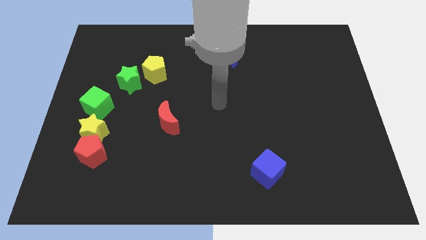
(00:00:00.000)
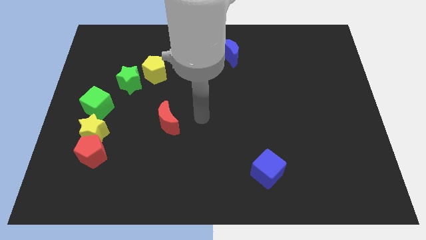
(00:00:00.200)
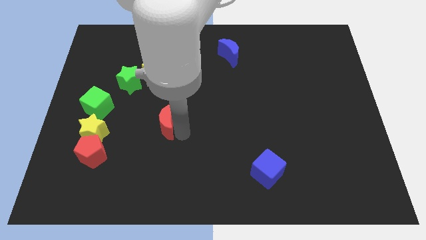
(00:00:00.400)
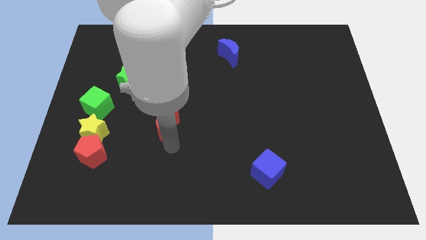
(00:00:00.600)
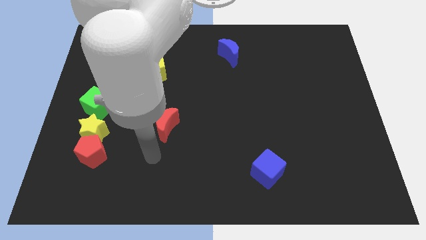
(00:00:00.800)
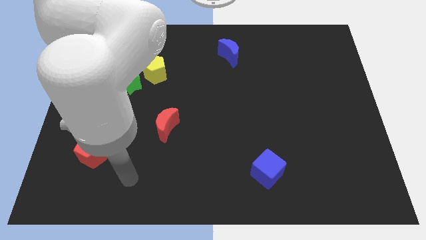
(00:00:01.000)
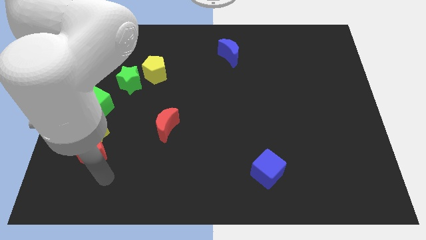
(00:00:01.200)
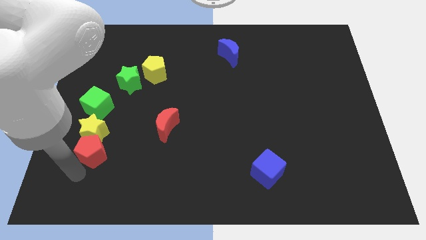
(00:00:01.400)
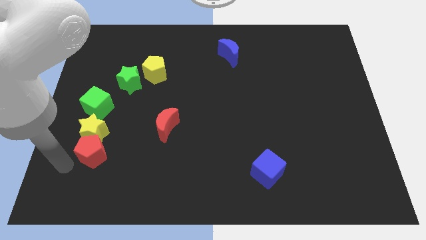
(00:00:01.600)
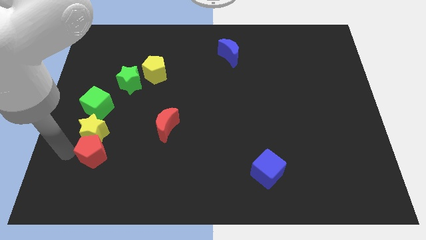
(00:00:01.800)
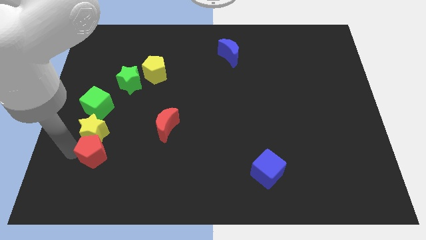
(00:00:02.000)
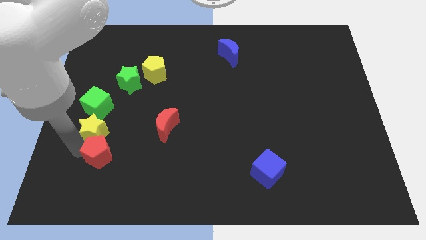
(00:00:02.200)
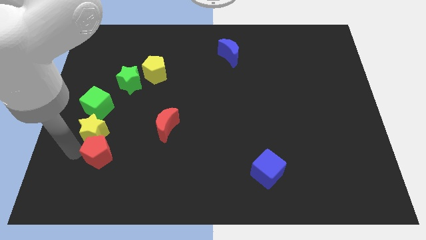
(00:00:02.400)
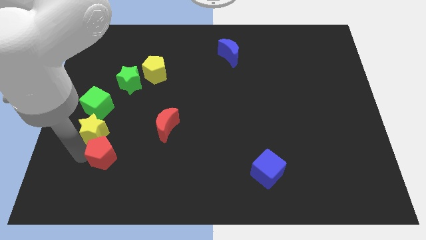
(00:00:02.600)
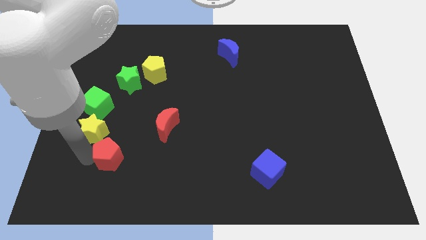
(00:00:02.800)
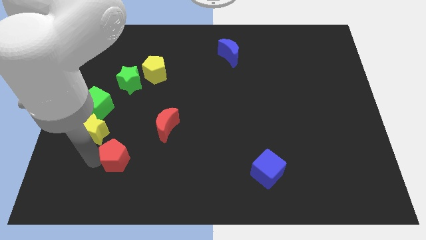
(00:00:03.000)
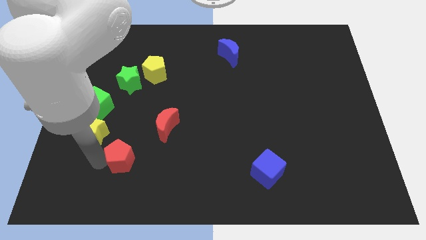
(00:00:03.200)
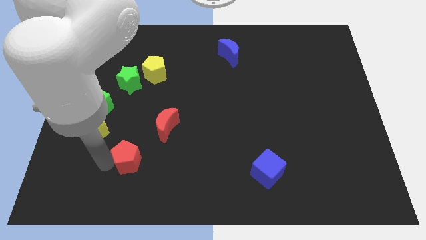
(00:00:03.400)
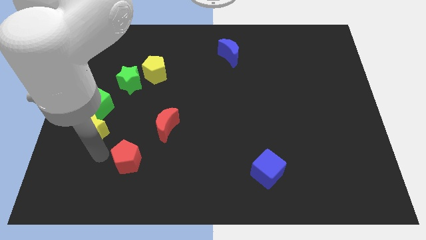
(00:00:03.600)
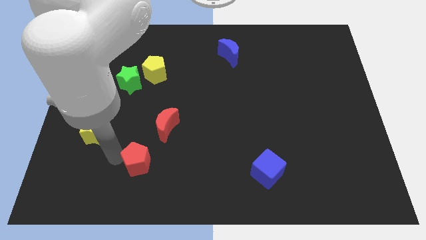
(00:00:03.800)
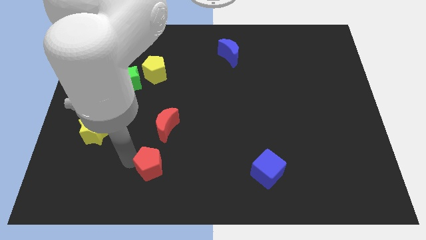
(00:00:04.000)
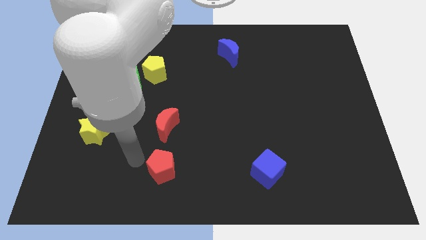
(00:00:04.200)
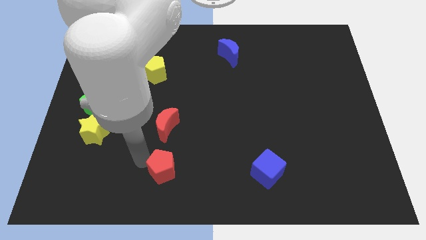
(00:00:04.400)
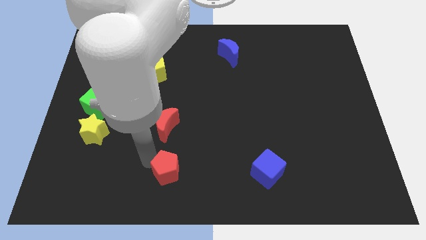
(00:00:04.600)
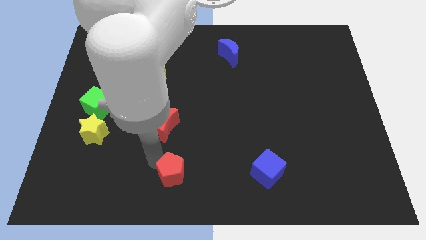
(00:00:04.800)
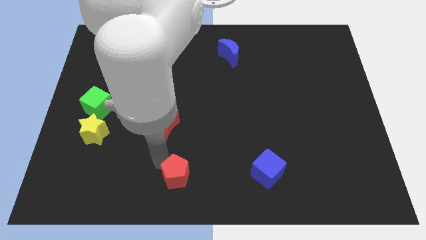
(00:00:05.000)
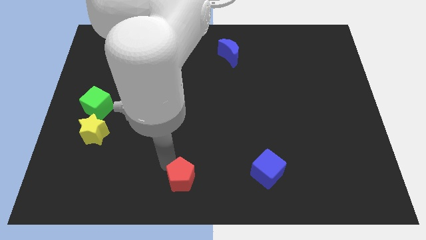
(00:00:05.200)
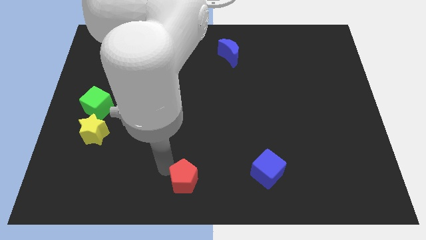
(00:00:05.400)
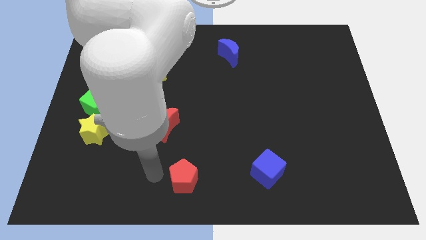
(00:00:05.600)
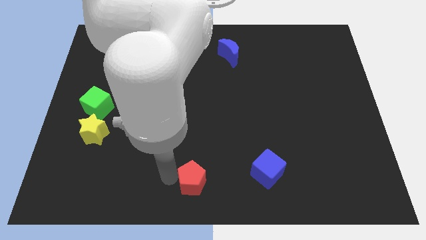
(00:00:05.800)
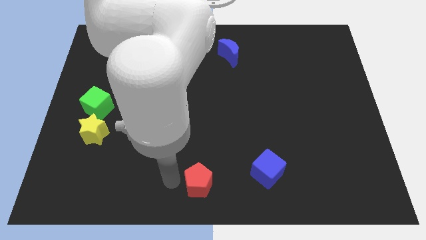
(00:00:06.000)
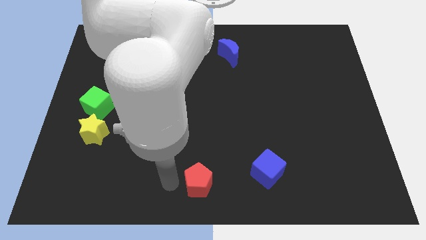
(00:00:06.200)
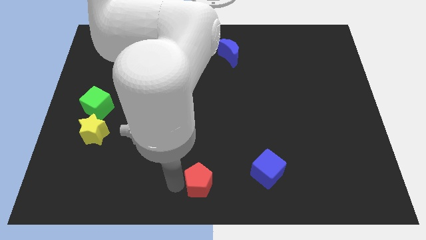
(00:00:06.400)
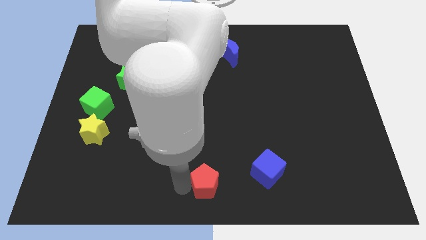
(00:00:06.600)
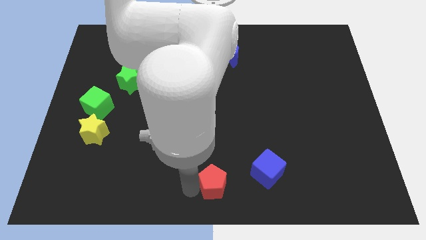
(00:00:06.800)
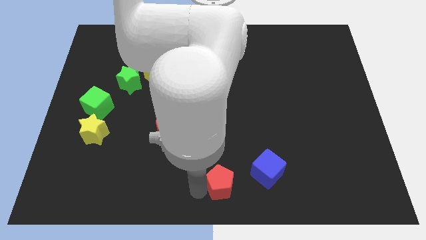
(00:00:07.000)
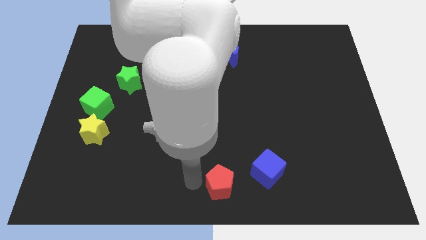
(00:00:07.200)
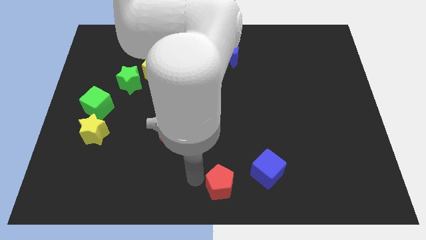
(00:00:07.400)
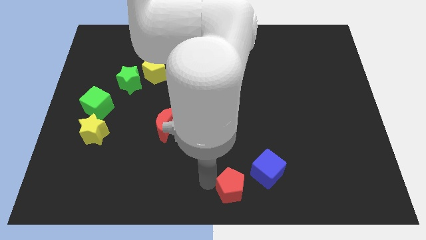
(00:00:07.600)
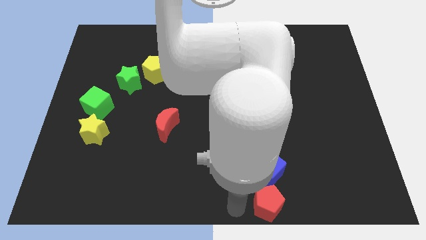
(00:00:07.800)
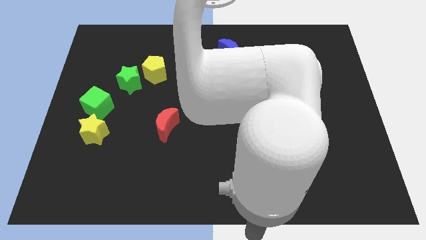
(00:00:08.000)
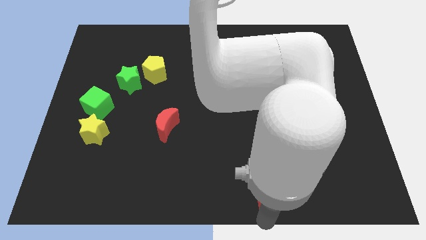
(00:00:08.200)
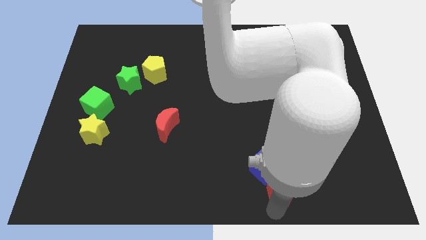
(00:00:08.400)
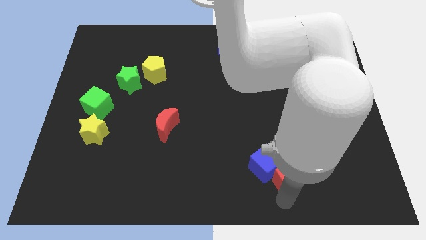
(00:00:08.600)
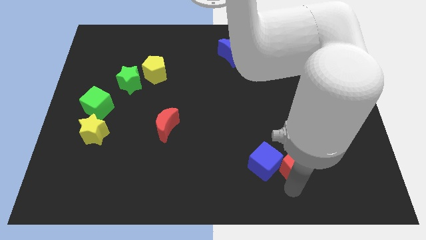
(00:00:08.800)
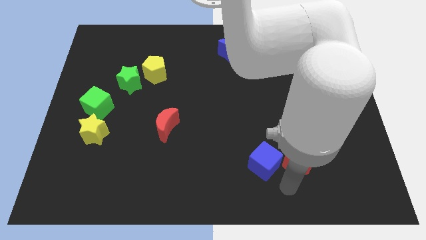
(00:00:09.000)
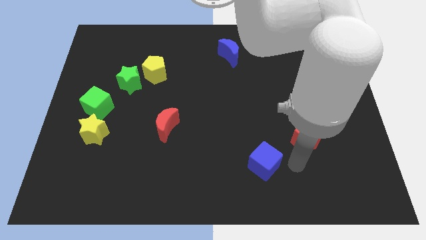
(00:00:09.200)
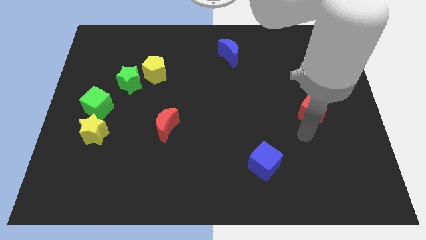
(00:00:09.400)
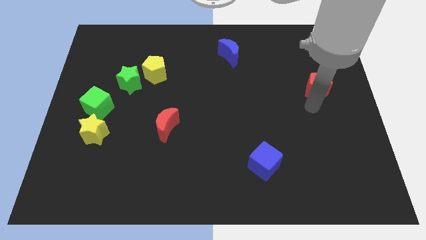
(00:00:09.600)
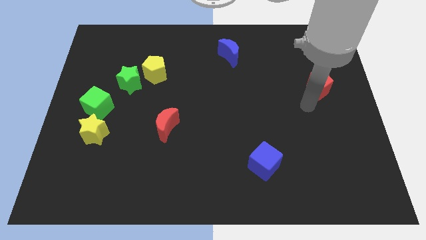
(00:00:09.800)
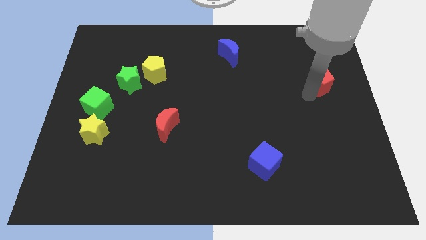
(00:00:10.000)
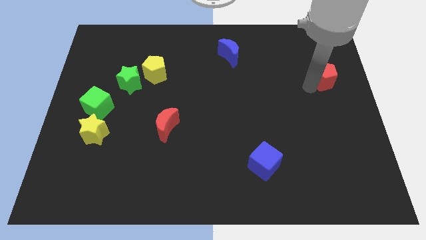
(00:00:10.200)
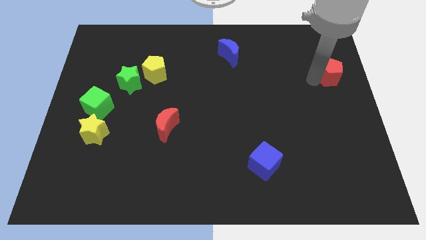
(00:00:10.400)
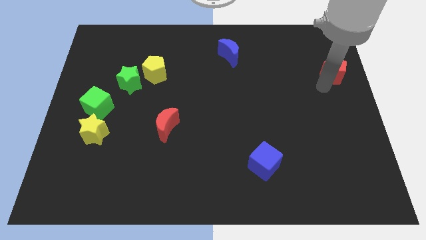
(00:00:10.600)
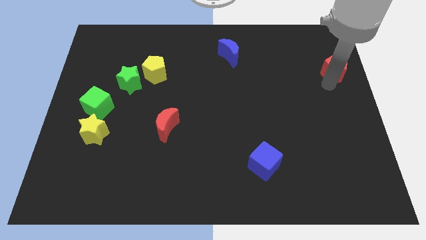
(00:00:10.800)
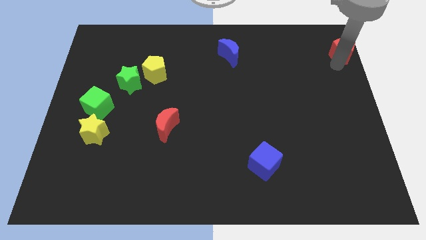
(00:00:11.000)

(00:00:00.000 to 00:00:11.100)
push the red pentagon to the upper right corner

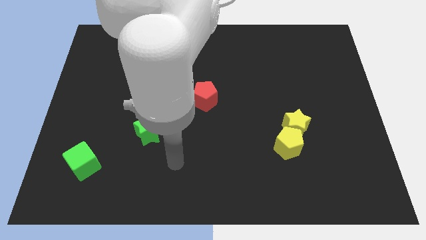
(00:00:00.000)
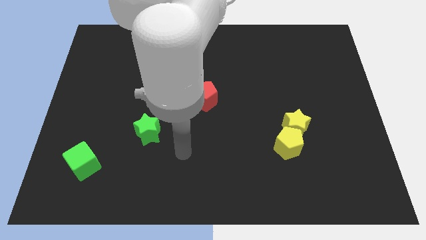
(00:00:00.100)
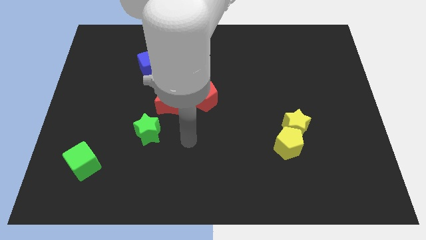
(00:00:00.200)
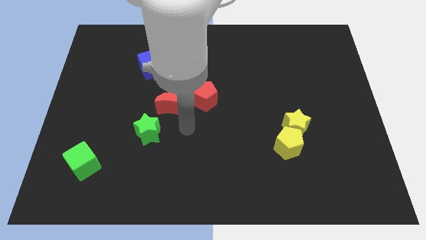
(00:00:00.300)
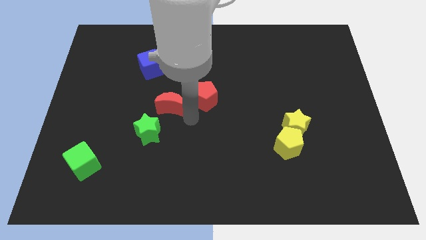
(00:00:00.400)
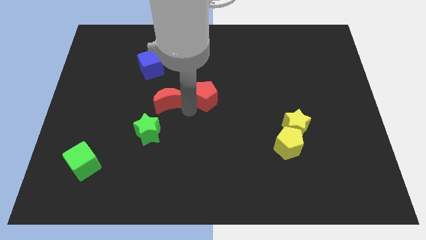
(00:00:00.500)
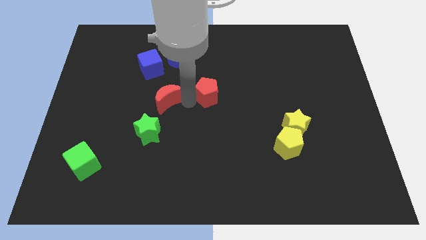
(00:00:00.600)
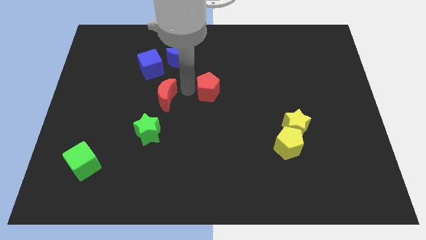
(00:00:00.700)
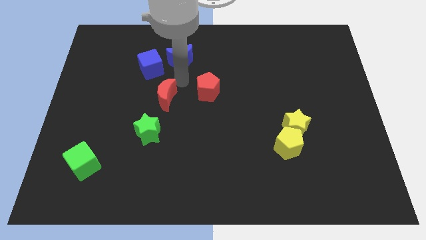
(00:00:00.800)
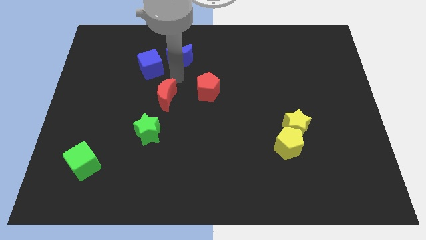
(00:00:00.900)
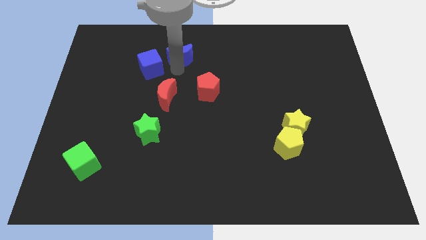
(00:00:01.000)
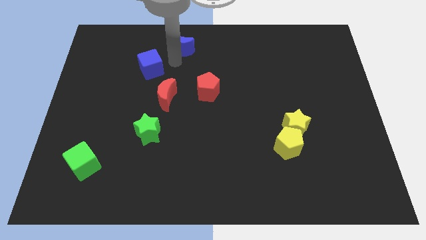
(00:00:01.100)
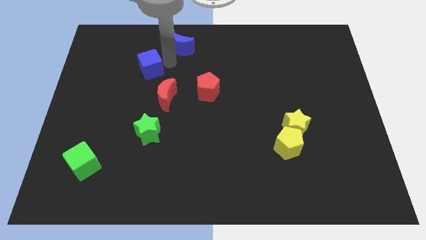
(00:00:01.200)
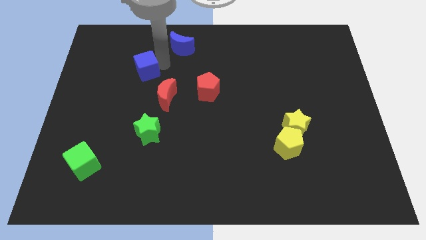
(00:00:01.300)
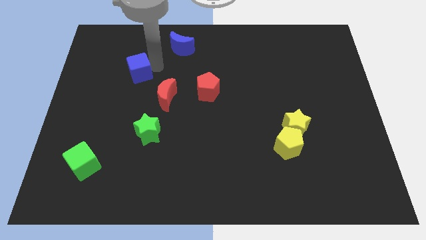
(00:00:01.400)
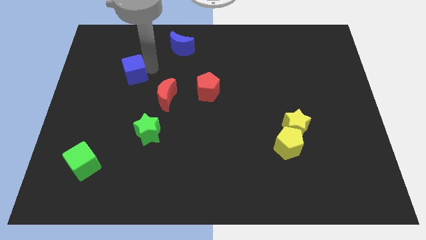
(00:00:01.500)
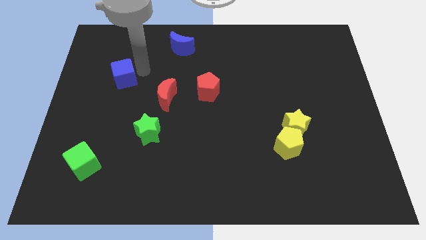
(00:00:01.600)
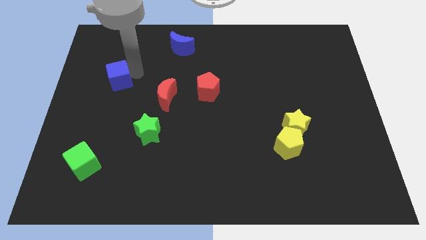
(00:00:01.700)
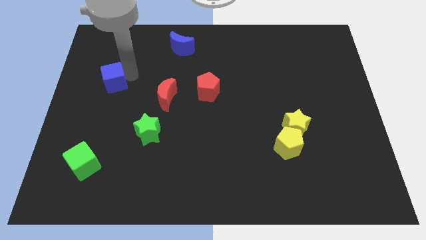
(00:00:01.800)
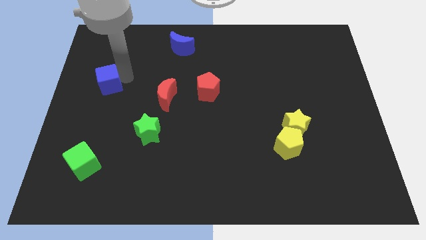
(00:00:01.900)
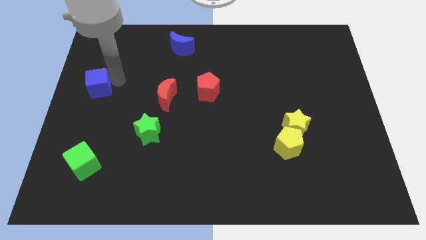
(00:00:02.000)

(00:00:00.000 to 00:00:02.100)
move the blue cube to the left side of the board

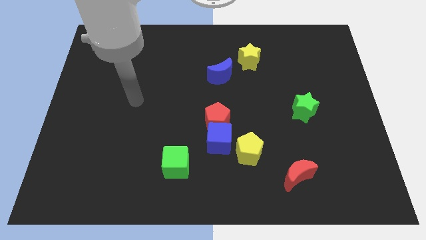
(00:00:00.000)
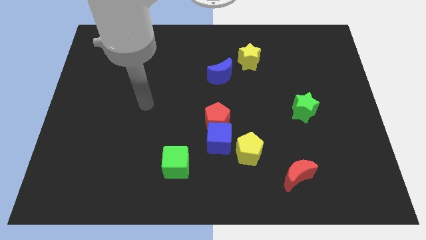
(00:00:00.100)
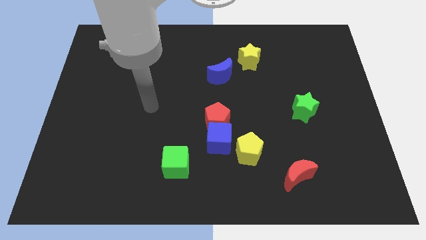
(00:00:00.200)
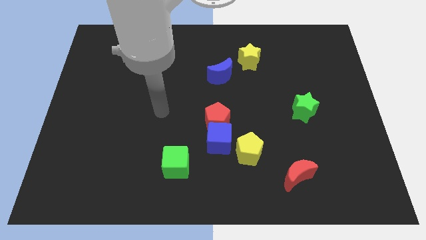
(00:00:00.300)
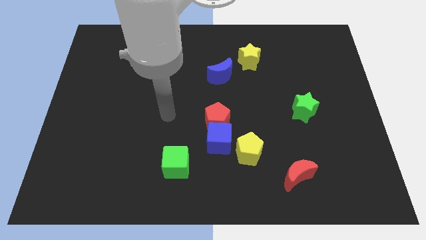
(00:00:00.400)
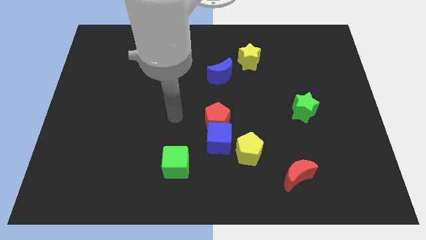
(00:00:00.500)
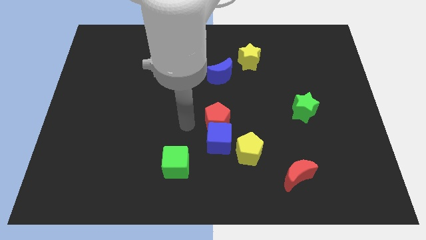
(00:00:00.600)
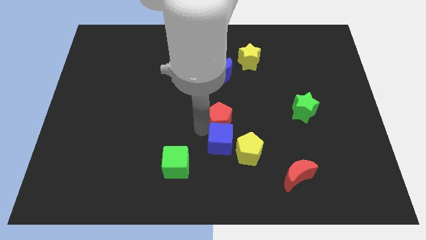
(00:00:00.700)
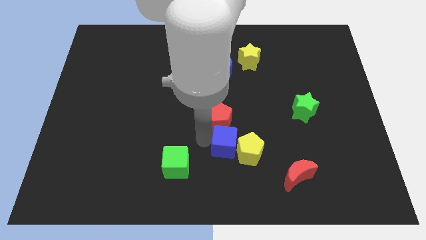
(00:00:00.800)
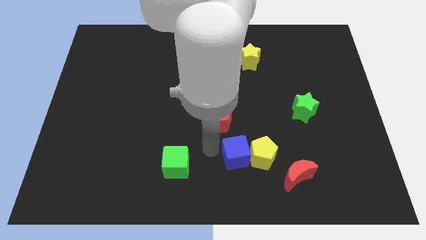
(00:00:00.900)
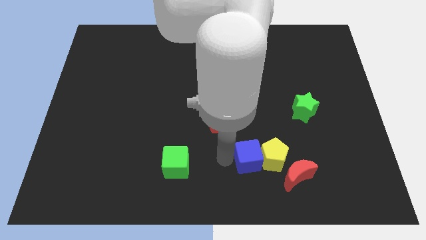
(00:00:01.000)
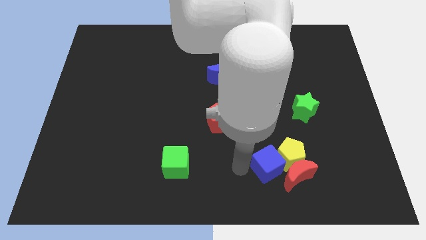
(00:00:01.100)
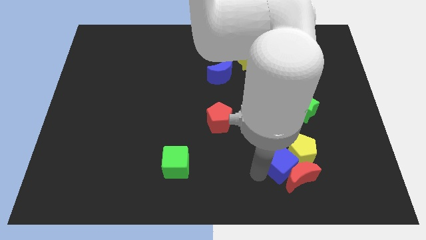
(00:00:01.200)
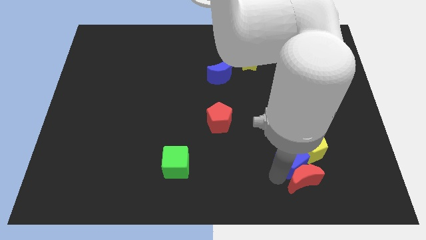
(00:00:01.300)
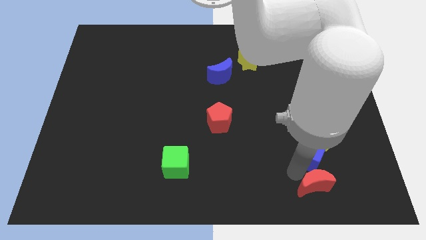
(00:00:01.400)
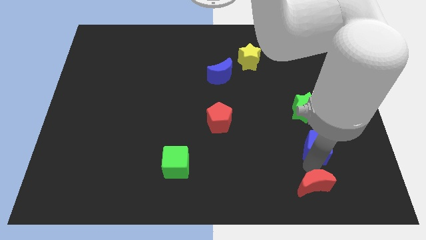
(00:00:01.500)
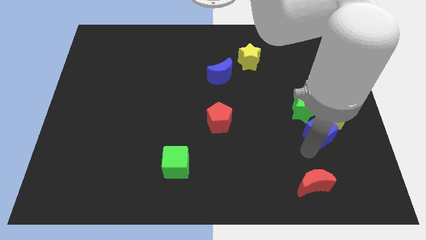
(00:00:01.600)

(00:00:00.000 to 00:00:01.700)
move the yellow pentagon to the right side
